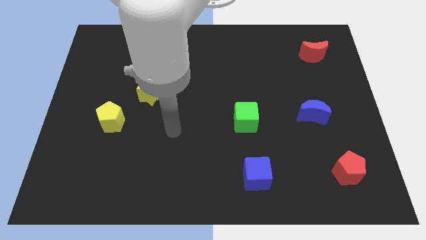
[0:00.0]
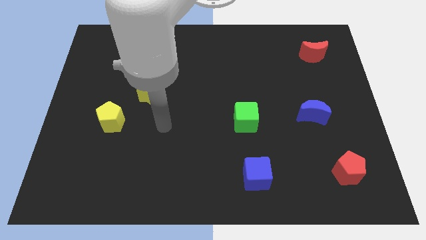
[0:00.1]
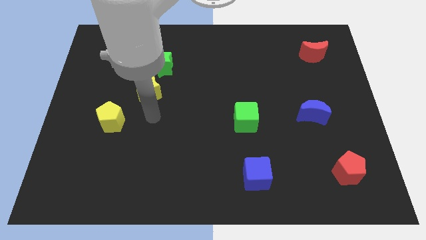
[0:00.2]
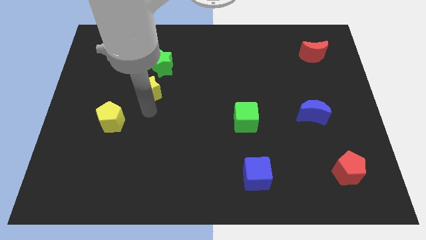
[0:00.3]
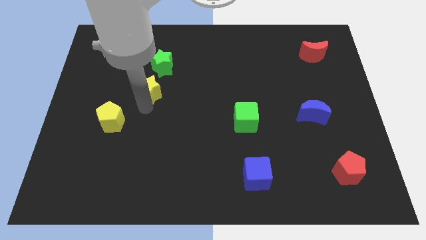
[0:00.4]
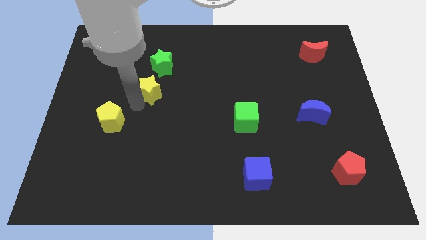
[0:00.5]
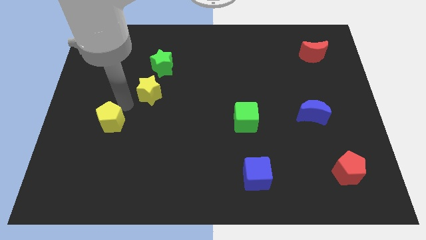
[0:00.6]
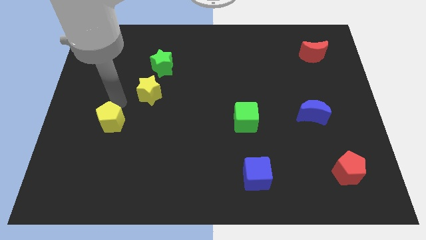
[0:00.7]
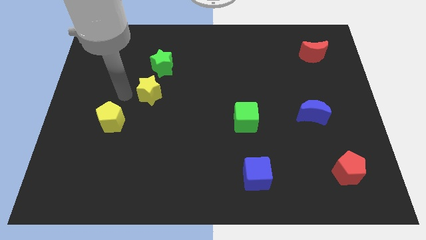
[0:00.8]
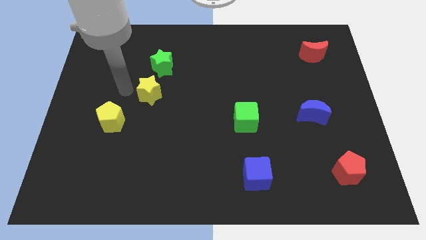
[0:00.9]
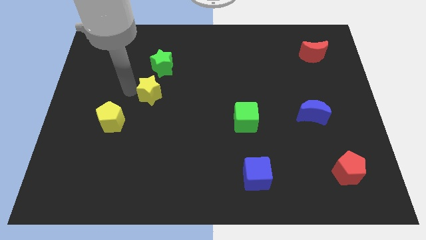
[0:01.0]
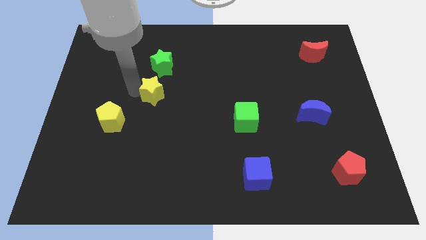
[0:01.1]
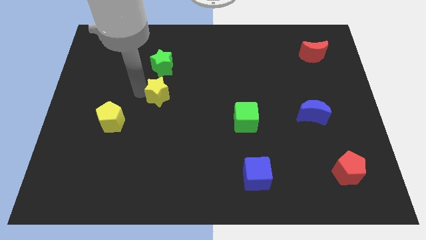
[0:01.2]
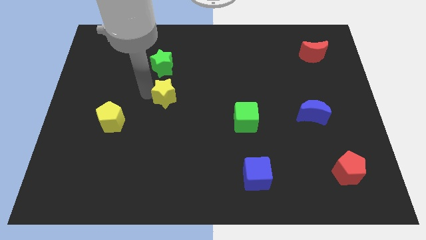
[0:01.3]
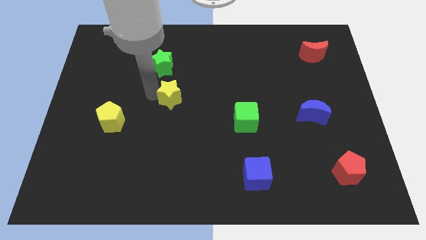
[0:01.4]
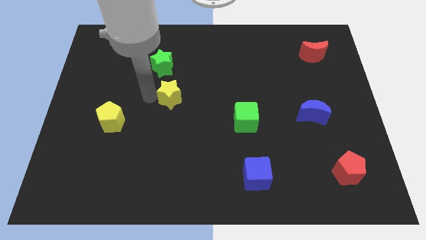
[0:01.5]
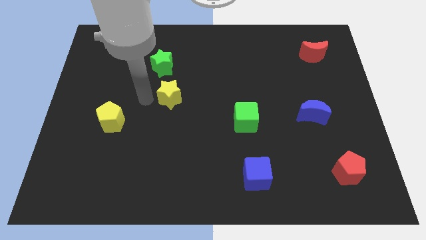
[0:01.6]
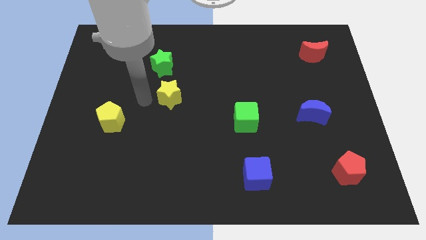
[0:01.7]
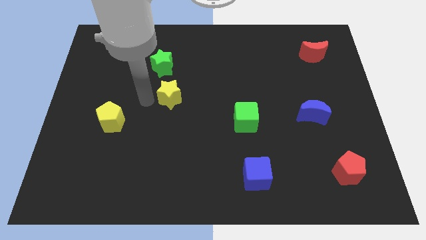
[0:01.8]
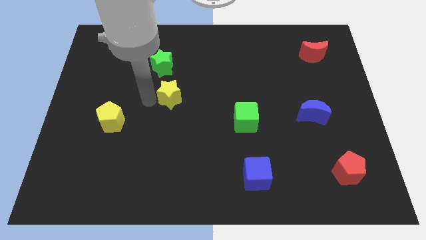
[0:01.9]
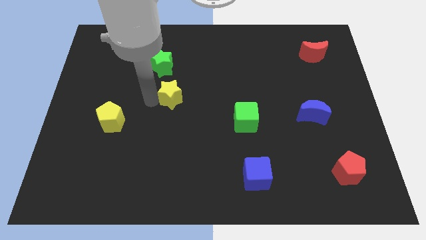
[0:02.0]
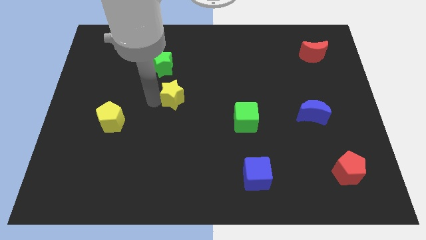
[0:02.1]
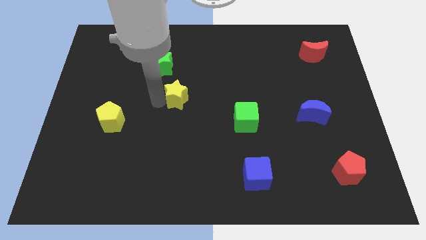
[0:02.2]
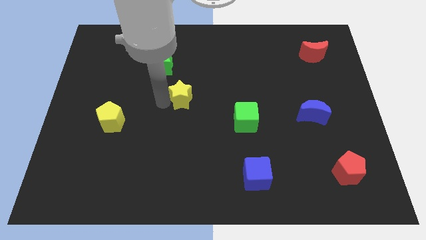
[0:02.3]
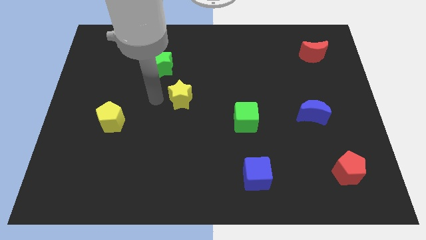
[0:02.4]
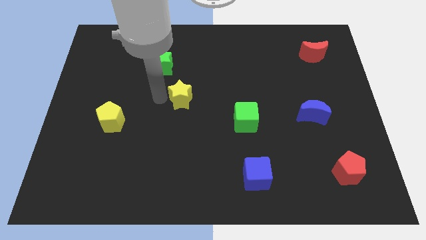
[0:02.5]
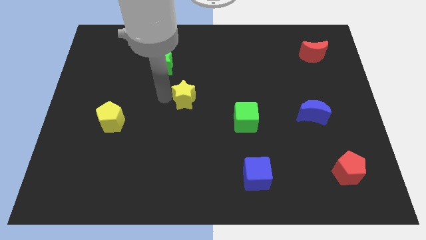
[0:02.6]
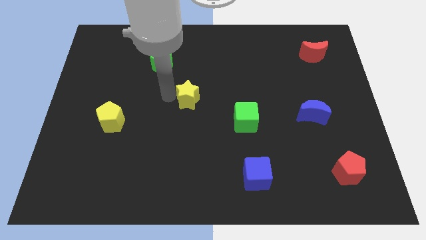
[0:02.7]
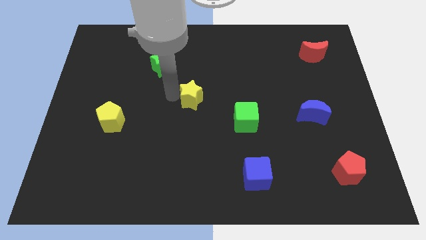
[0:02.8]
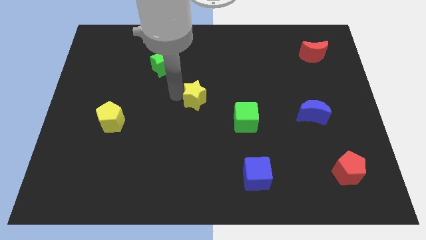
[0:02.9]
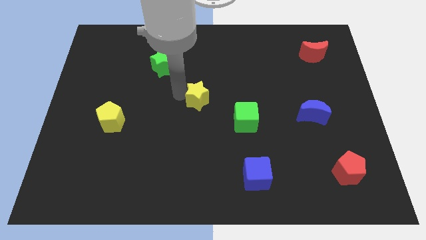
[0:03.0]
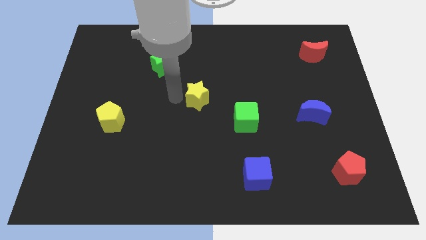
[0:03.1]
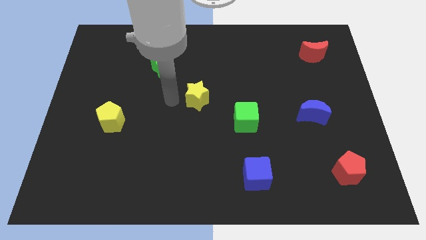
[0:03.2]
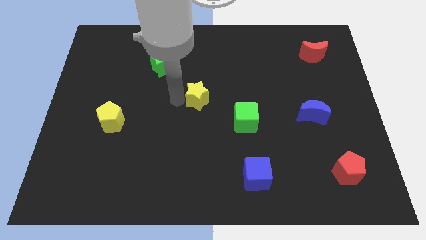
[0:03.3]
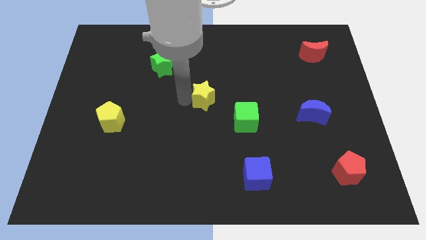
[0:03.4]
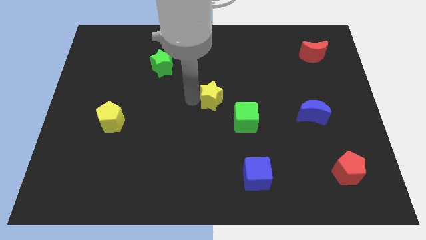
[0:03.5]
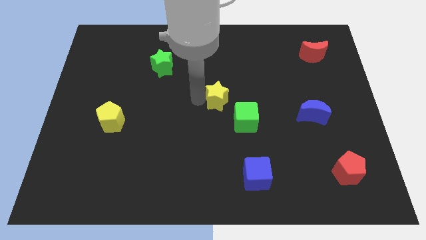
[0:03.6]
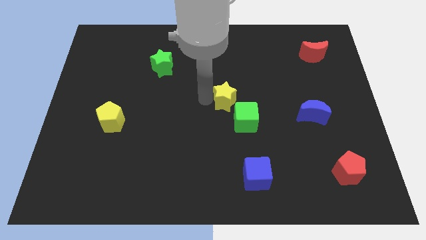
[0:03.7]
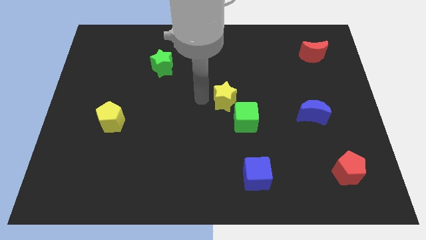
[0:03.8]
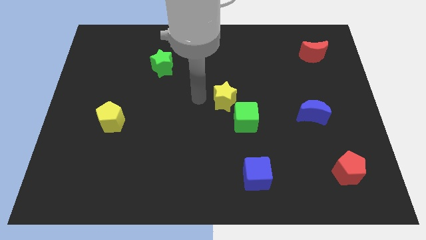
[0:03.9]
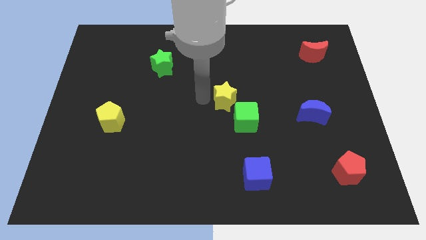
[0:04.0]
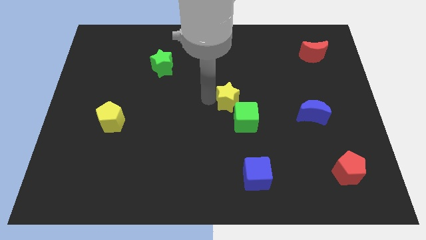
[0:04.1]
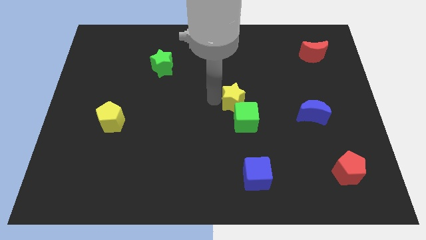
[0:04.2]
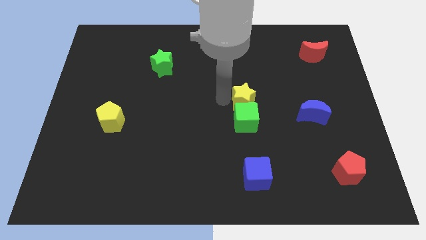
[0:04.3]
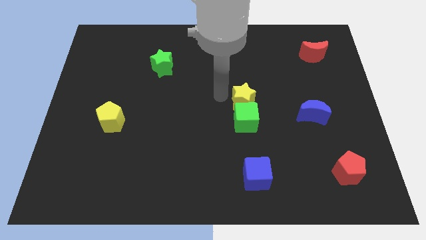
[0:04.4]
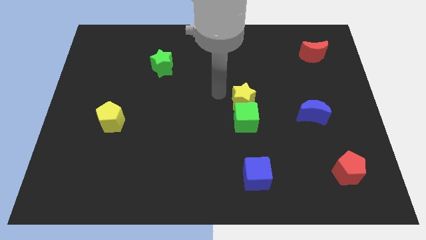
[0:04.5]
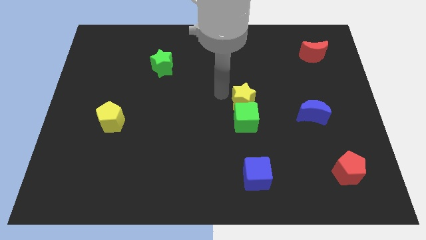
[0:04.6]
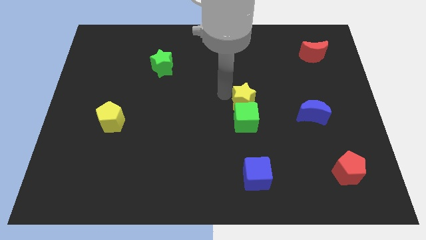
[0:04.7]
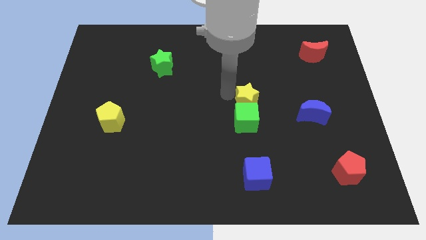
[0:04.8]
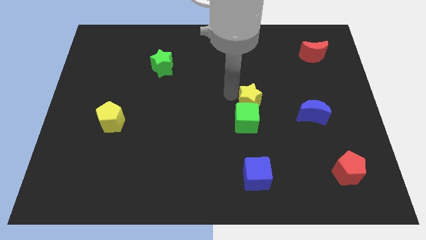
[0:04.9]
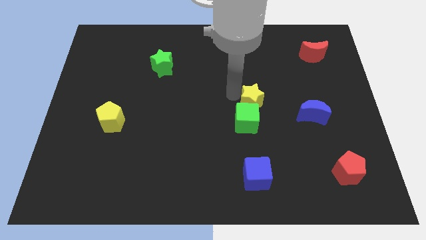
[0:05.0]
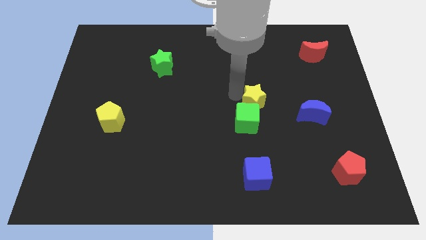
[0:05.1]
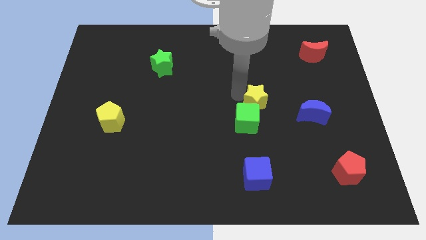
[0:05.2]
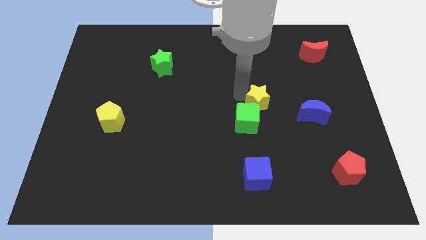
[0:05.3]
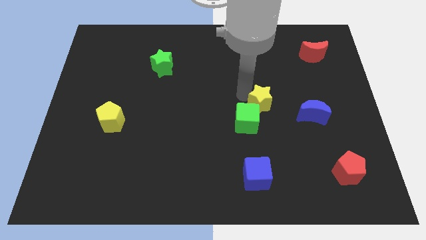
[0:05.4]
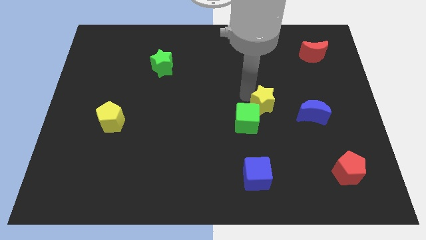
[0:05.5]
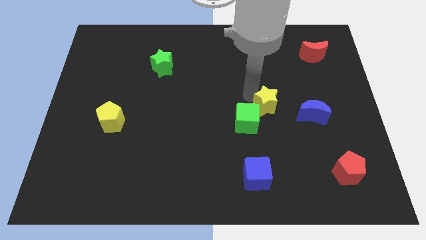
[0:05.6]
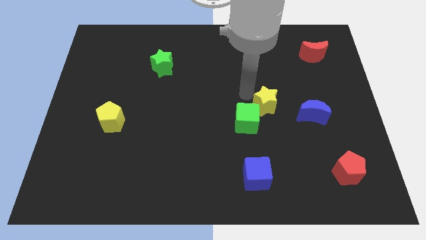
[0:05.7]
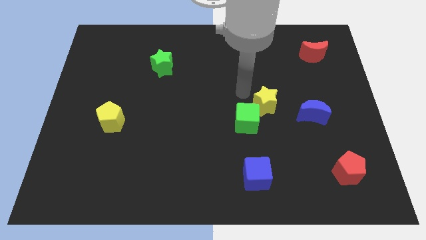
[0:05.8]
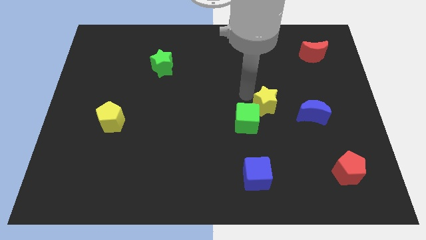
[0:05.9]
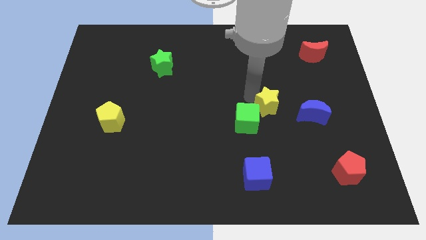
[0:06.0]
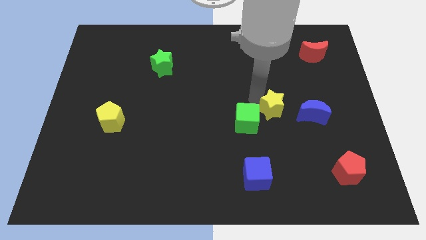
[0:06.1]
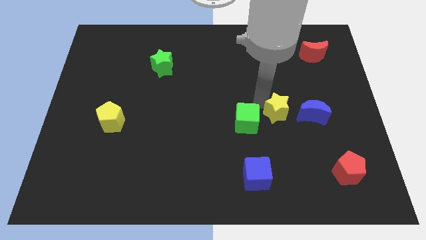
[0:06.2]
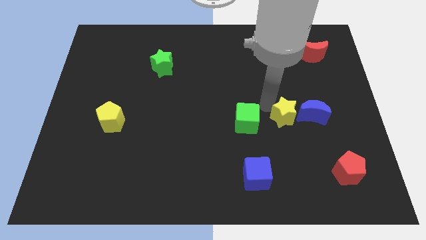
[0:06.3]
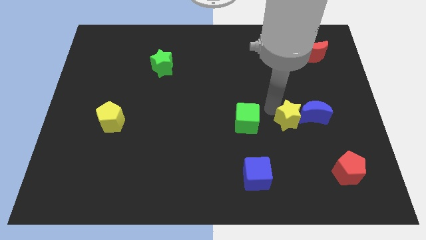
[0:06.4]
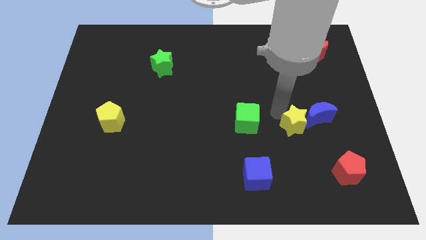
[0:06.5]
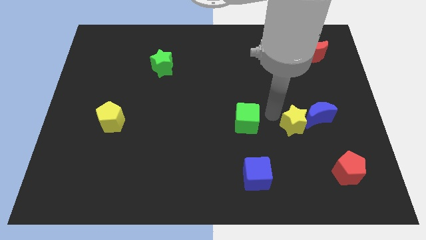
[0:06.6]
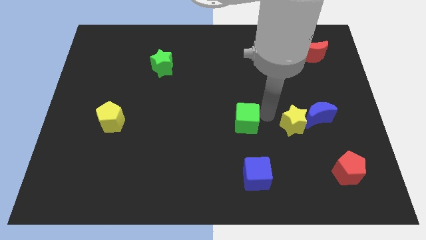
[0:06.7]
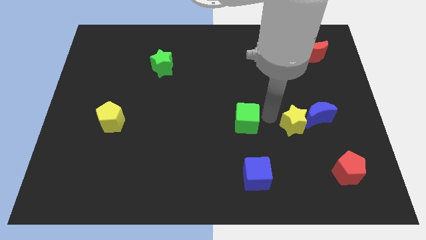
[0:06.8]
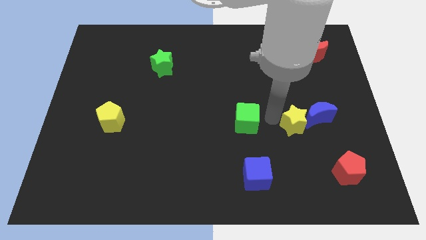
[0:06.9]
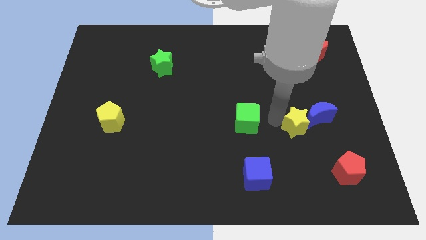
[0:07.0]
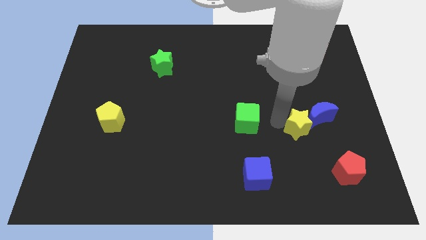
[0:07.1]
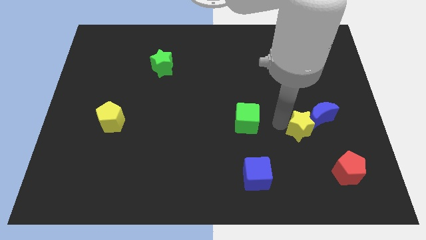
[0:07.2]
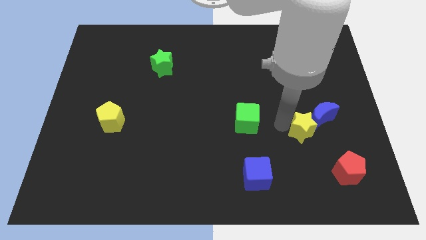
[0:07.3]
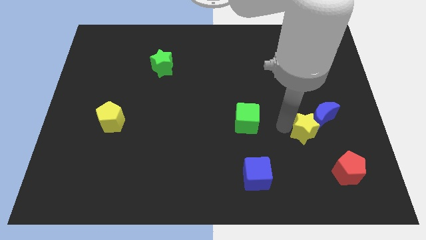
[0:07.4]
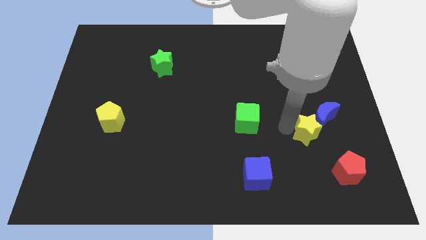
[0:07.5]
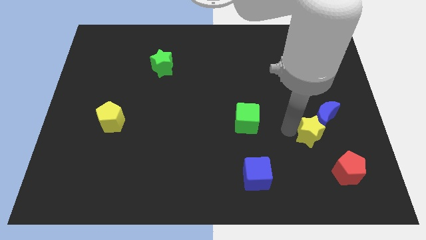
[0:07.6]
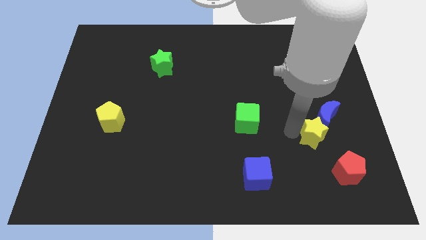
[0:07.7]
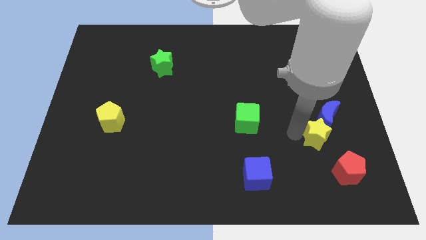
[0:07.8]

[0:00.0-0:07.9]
move the yellow star to the top side of the red pentagon
